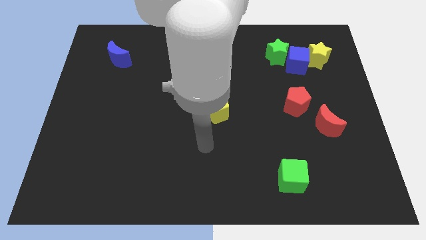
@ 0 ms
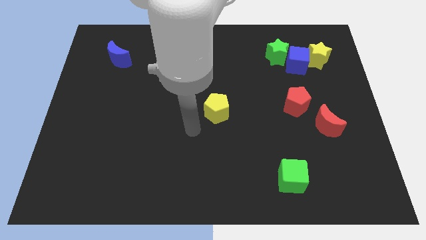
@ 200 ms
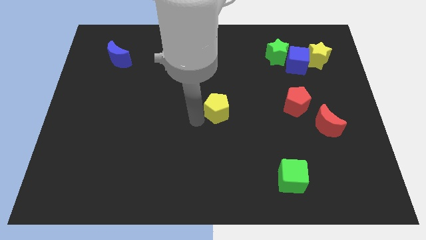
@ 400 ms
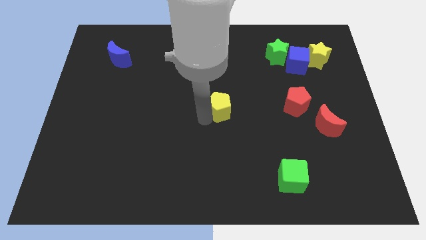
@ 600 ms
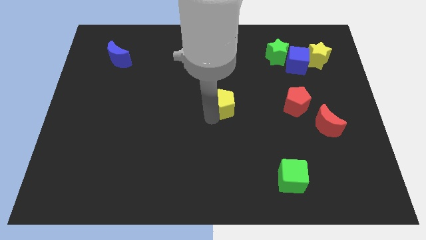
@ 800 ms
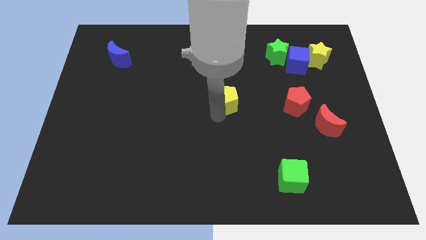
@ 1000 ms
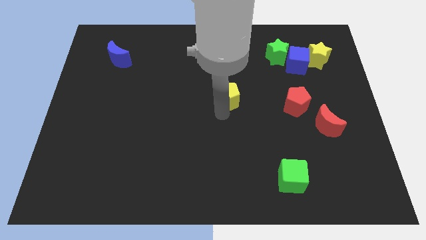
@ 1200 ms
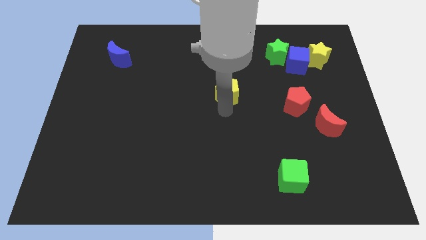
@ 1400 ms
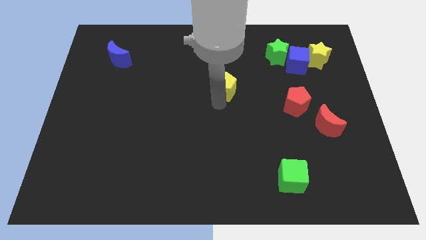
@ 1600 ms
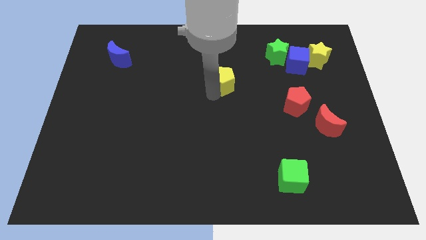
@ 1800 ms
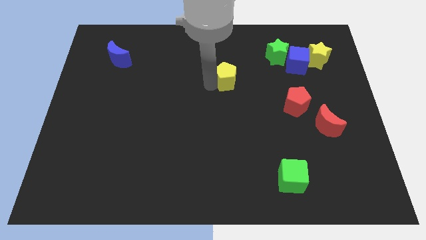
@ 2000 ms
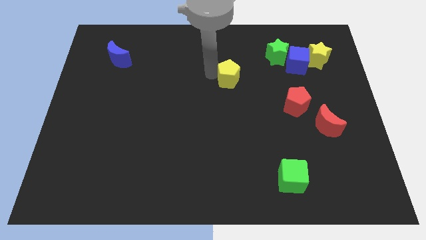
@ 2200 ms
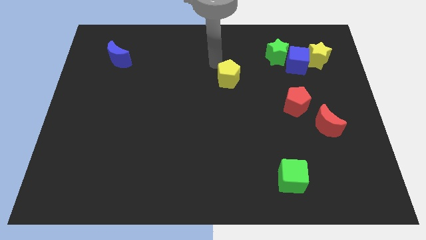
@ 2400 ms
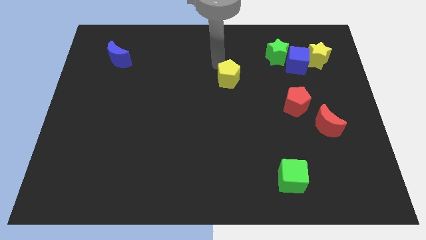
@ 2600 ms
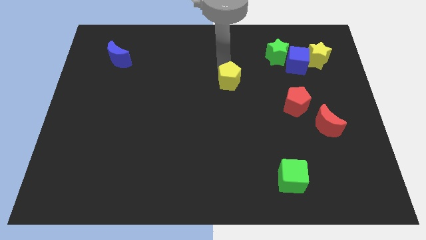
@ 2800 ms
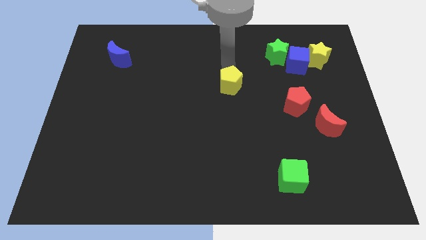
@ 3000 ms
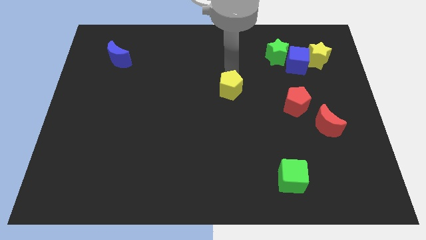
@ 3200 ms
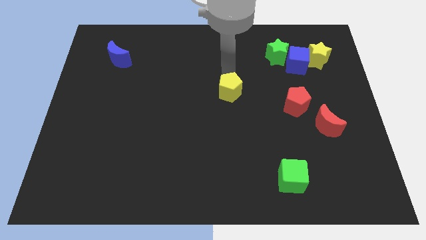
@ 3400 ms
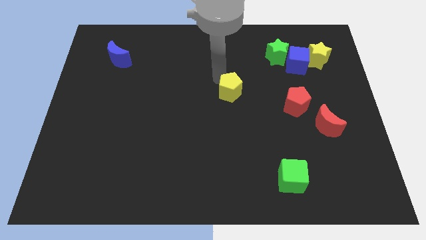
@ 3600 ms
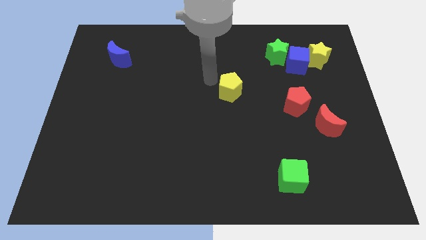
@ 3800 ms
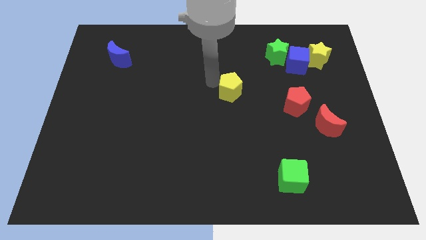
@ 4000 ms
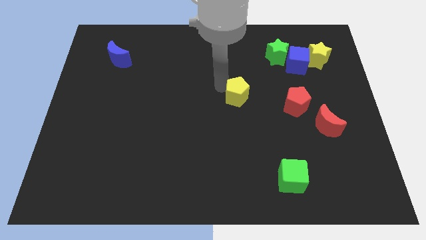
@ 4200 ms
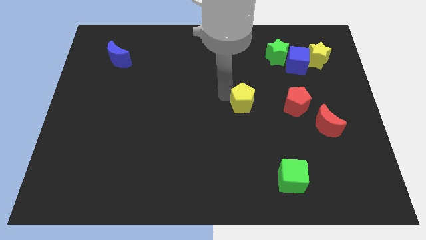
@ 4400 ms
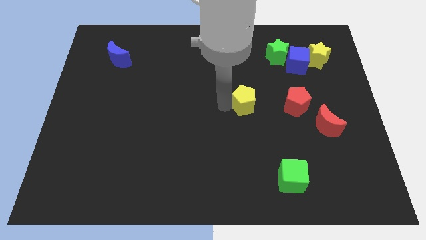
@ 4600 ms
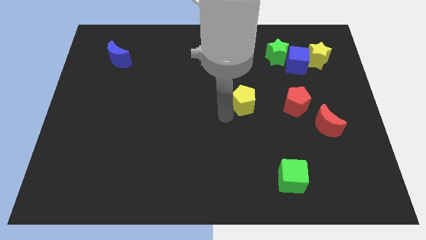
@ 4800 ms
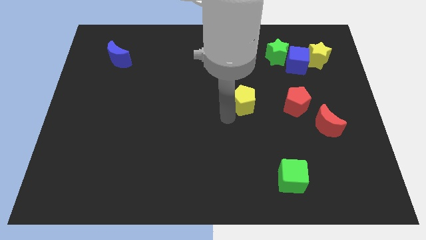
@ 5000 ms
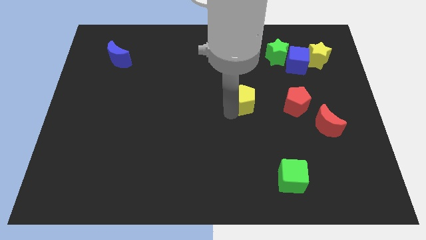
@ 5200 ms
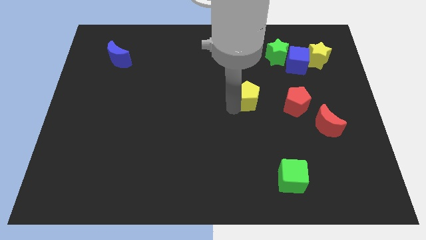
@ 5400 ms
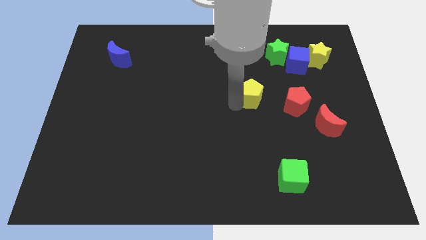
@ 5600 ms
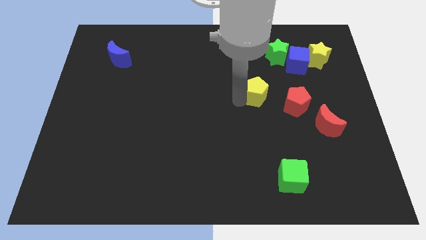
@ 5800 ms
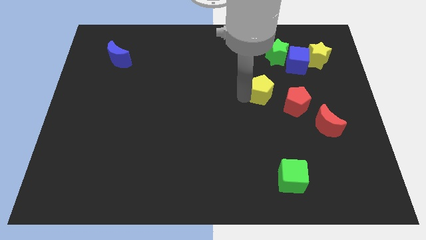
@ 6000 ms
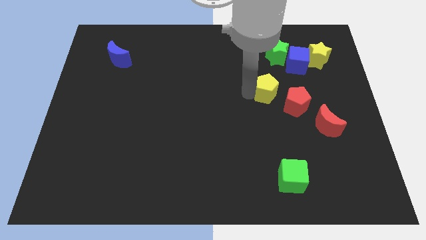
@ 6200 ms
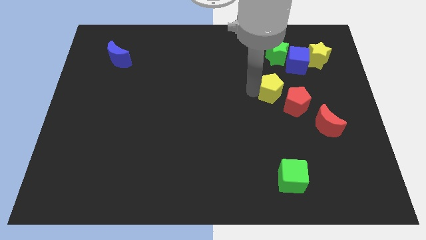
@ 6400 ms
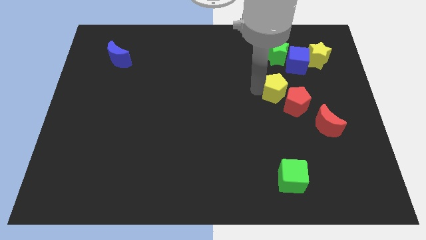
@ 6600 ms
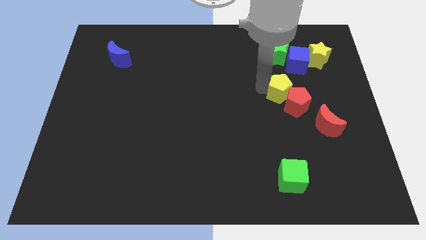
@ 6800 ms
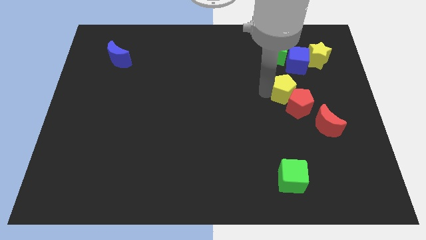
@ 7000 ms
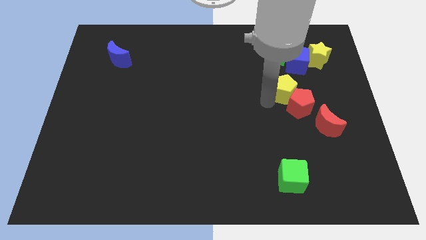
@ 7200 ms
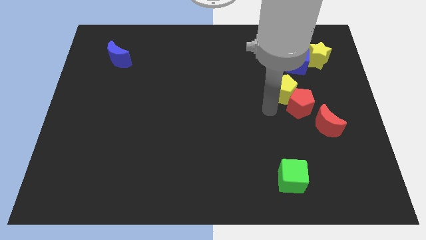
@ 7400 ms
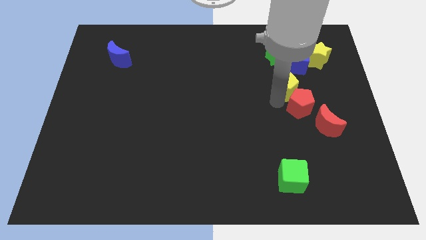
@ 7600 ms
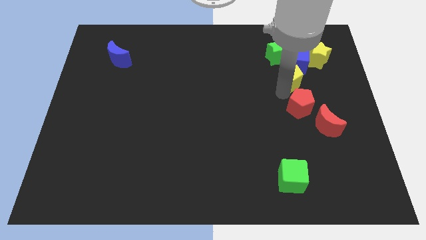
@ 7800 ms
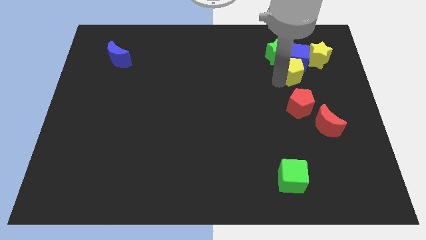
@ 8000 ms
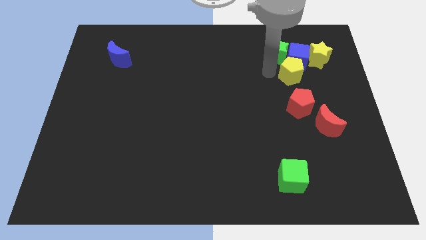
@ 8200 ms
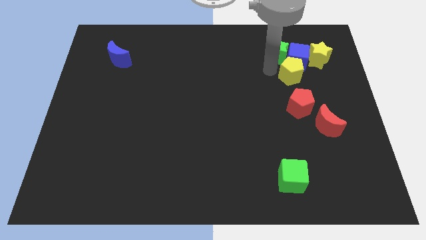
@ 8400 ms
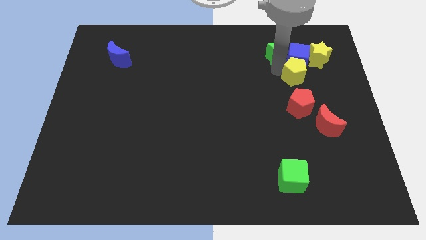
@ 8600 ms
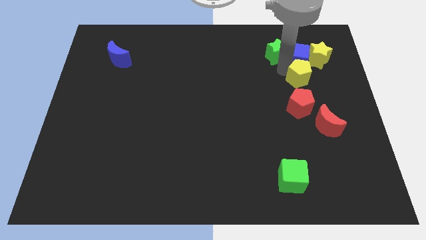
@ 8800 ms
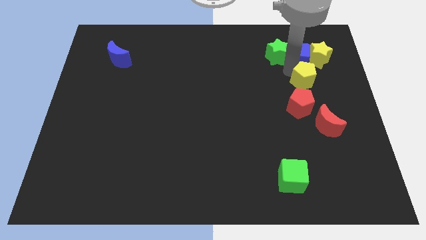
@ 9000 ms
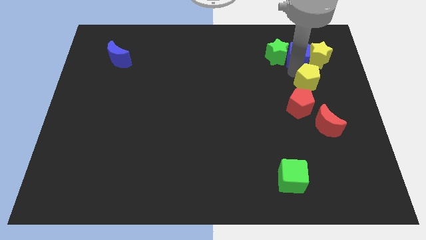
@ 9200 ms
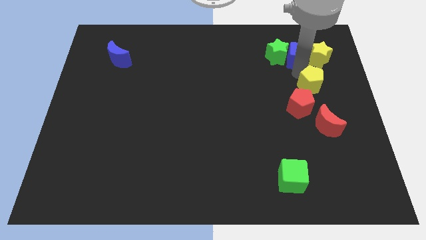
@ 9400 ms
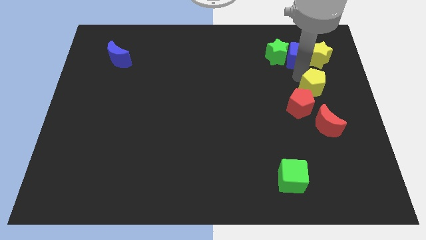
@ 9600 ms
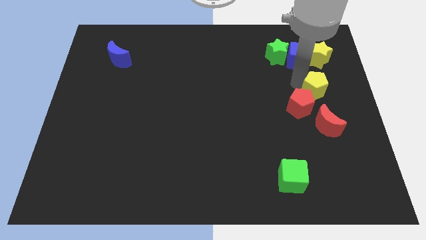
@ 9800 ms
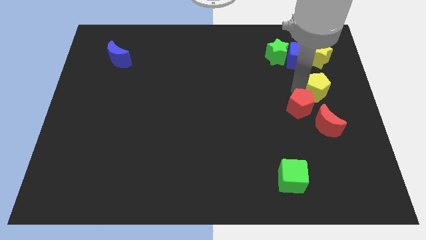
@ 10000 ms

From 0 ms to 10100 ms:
push the yellow pentagon to the right side of the board

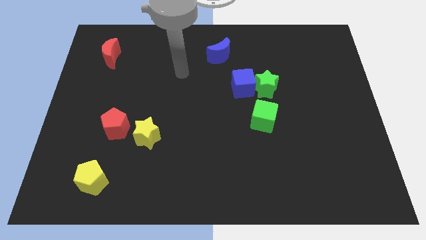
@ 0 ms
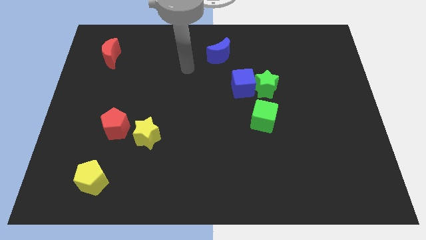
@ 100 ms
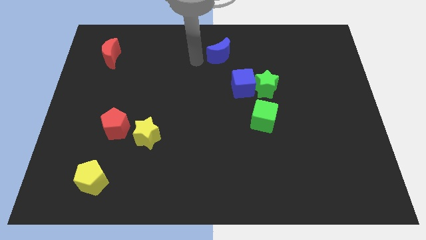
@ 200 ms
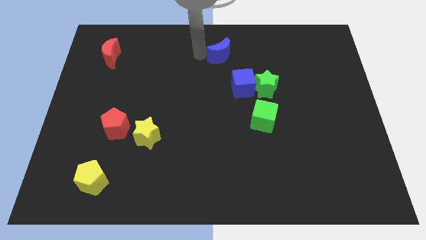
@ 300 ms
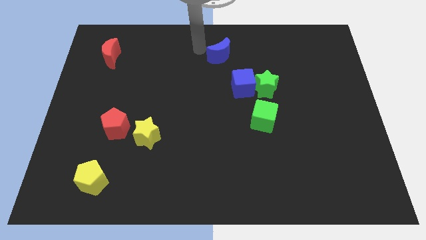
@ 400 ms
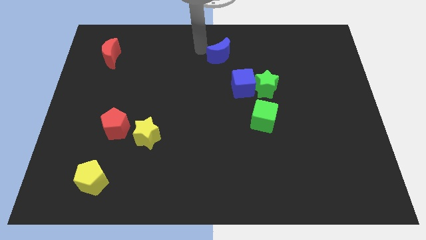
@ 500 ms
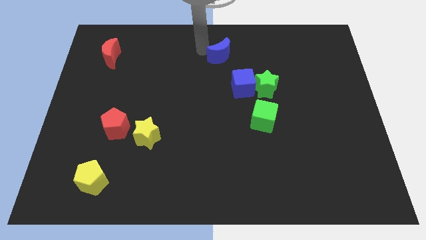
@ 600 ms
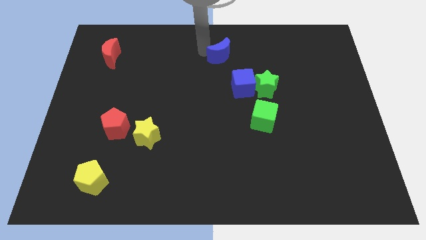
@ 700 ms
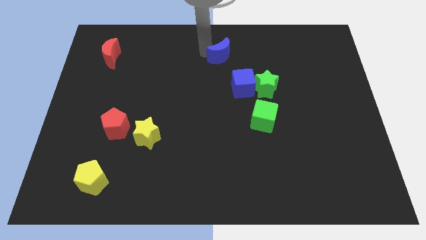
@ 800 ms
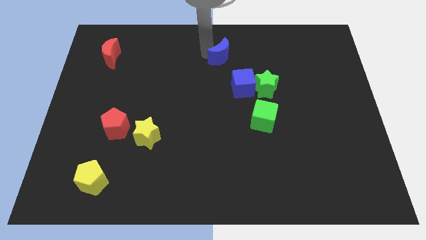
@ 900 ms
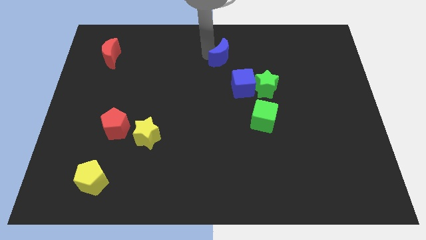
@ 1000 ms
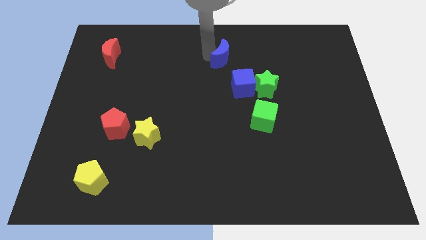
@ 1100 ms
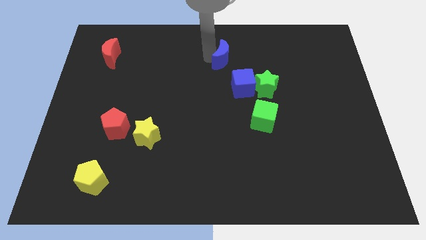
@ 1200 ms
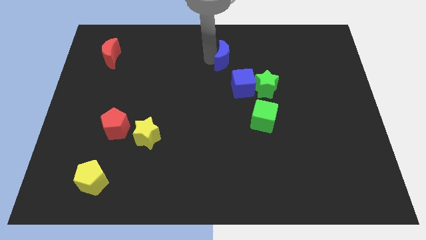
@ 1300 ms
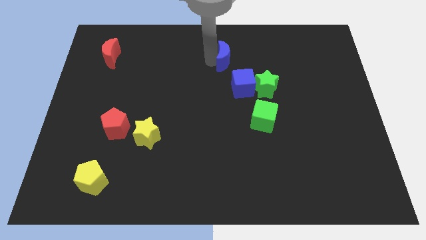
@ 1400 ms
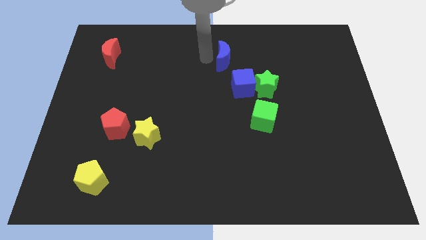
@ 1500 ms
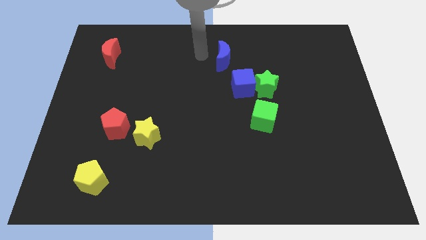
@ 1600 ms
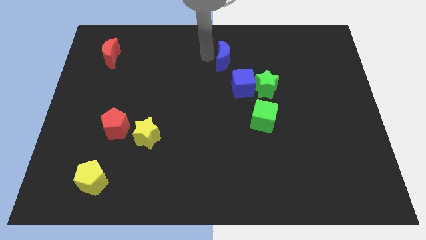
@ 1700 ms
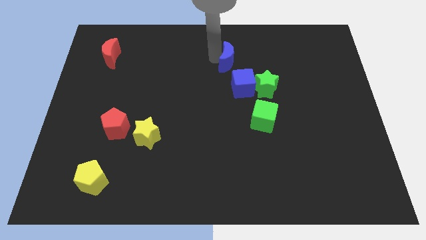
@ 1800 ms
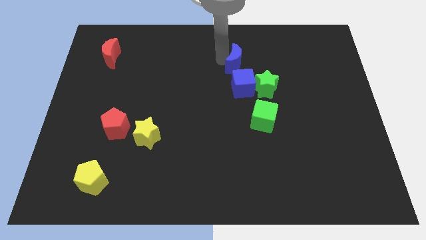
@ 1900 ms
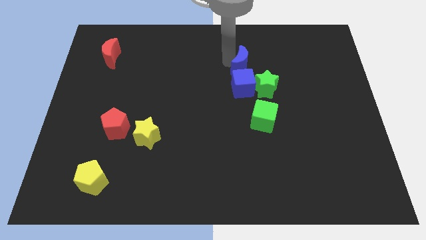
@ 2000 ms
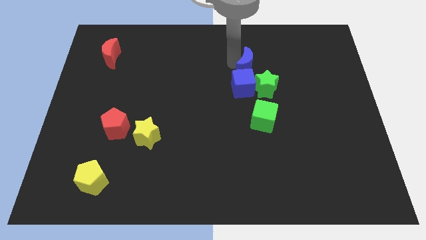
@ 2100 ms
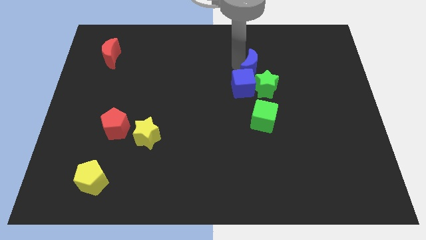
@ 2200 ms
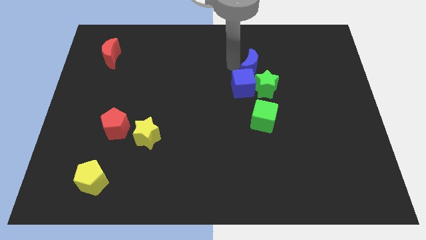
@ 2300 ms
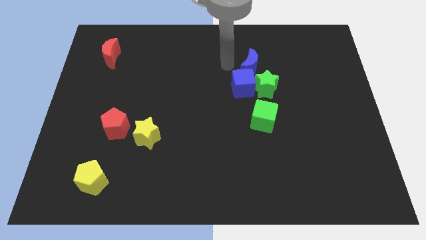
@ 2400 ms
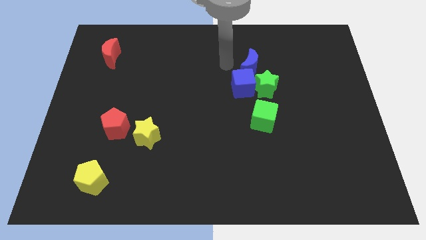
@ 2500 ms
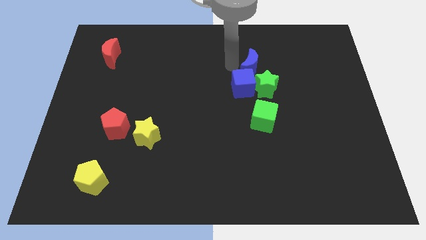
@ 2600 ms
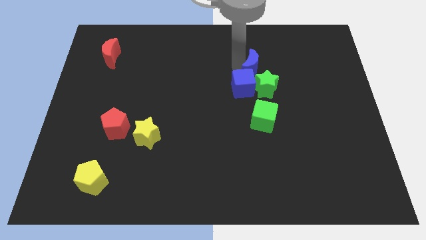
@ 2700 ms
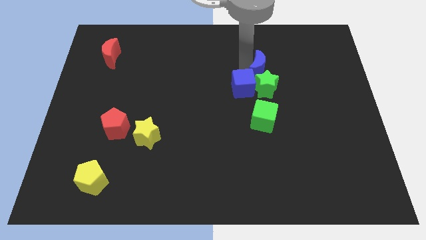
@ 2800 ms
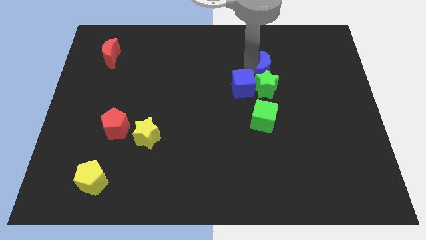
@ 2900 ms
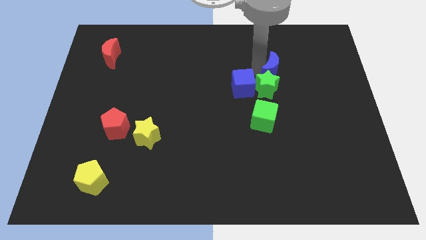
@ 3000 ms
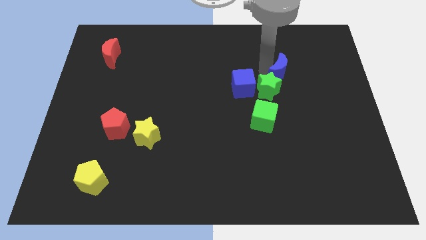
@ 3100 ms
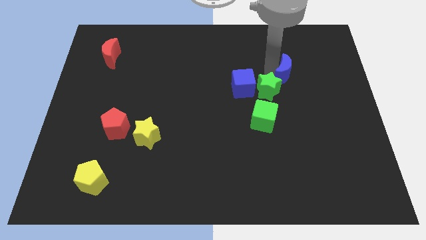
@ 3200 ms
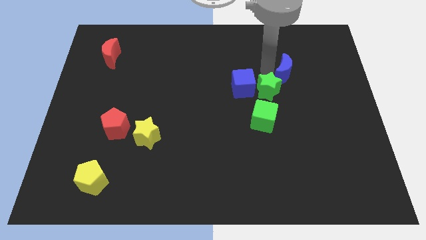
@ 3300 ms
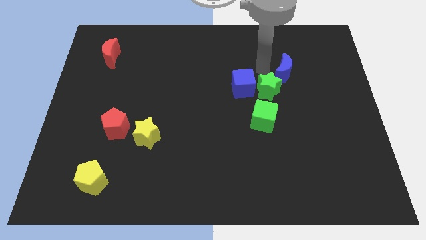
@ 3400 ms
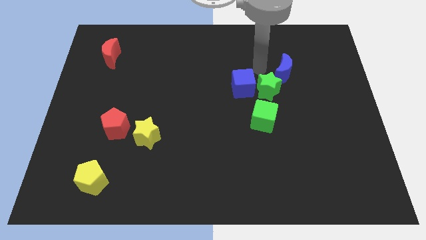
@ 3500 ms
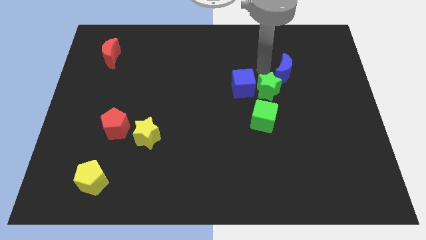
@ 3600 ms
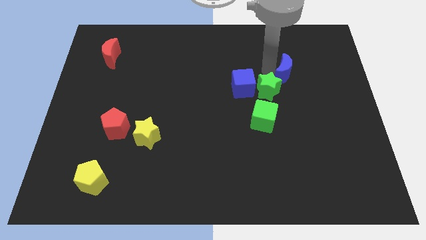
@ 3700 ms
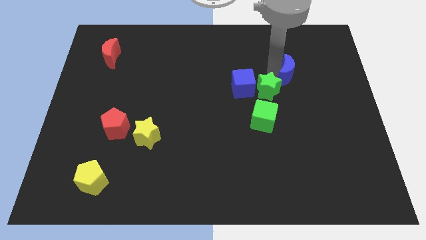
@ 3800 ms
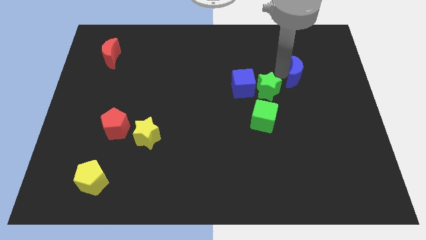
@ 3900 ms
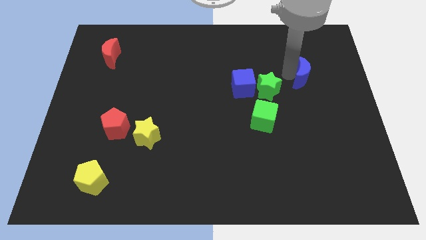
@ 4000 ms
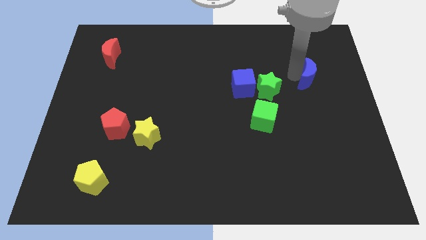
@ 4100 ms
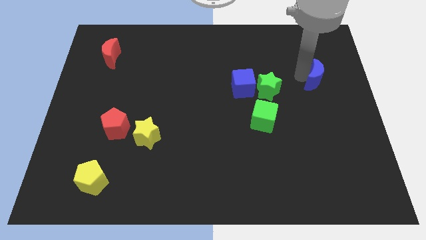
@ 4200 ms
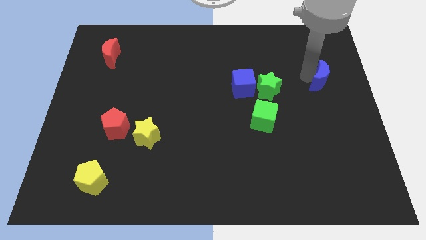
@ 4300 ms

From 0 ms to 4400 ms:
move the blue moon to the right side
